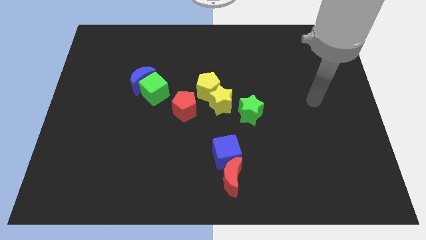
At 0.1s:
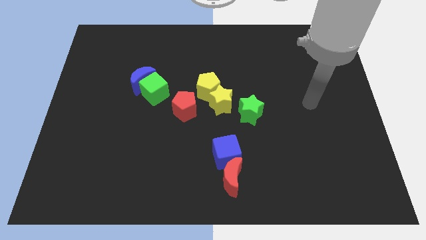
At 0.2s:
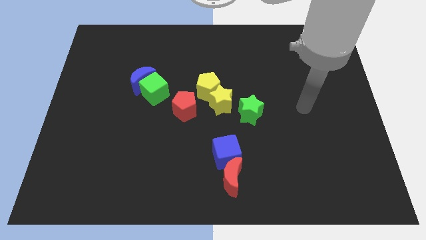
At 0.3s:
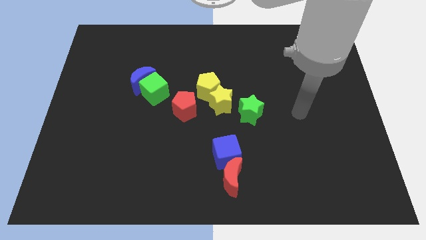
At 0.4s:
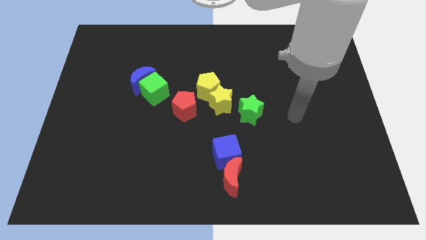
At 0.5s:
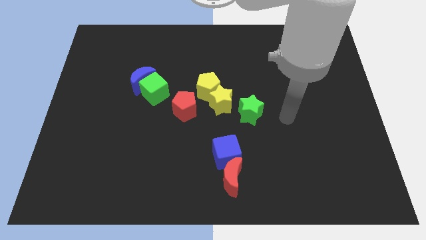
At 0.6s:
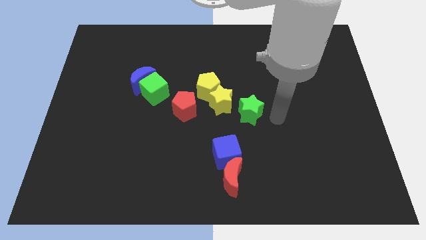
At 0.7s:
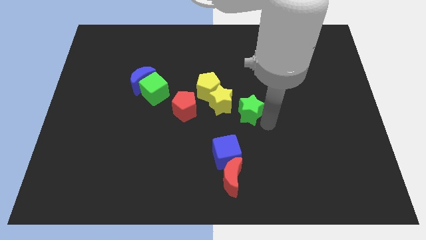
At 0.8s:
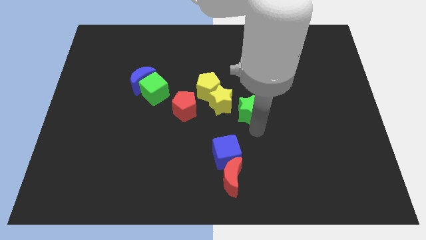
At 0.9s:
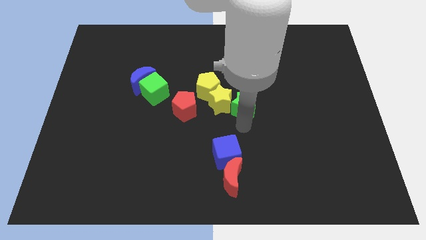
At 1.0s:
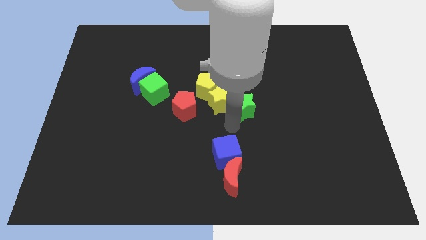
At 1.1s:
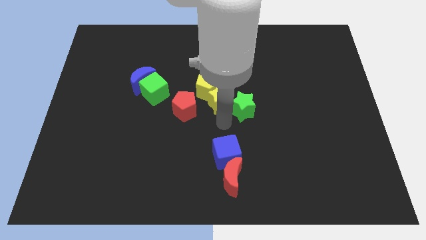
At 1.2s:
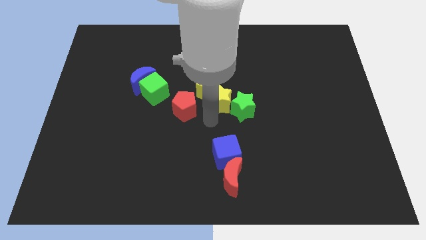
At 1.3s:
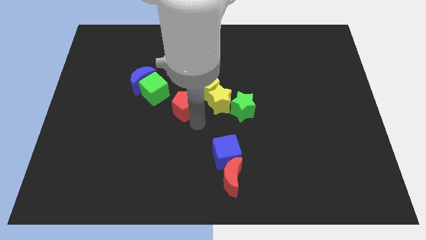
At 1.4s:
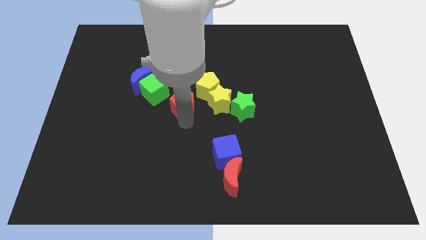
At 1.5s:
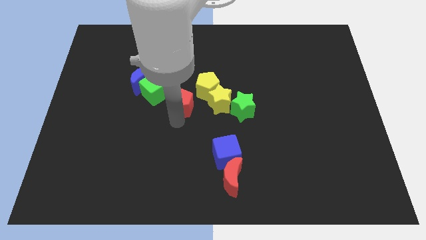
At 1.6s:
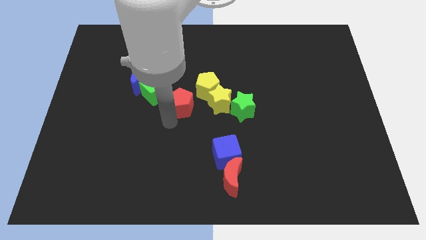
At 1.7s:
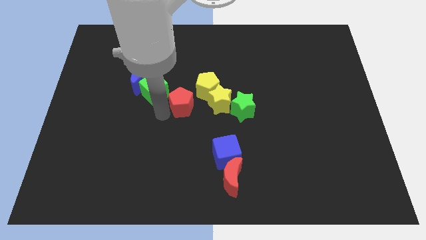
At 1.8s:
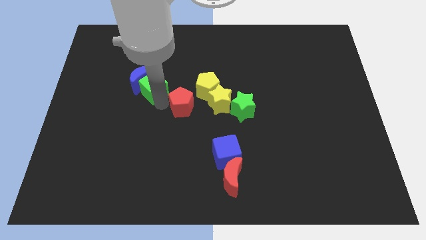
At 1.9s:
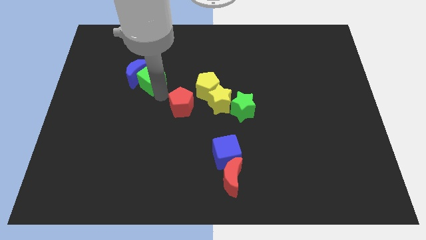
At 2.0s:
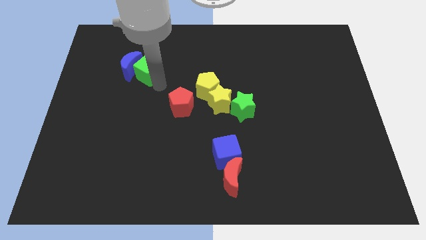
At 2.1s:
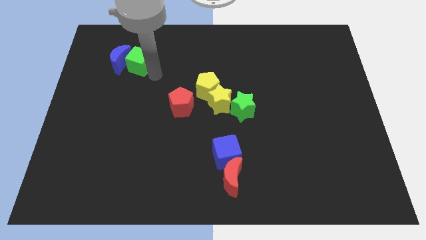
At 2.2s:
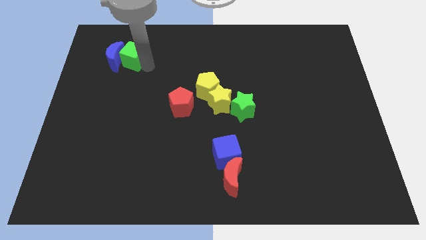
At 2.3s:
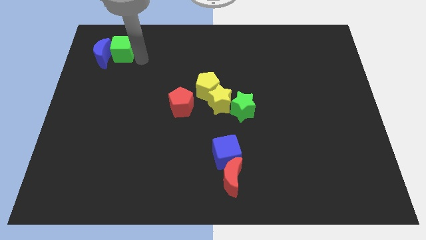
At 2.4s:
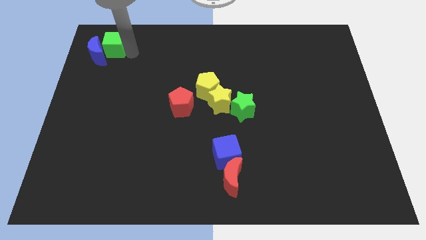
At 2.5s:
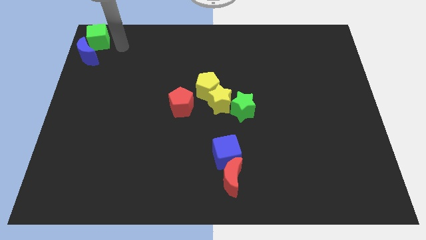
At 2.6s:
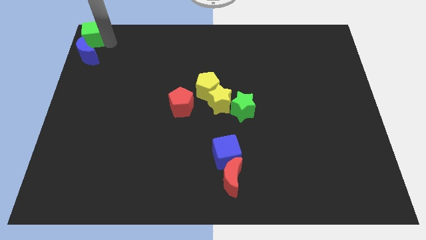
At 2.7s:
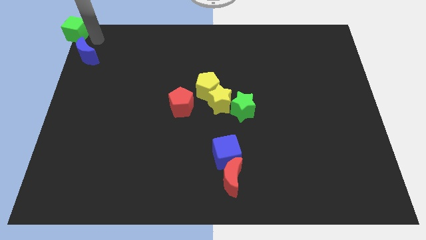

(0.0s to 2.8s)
pull the blue moon apart from the green cube

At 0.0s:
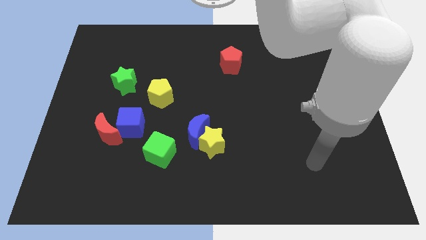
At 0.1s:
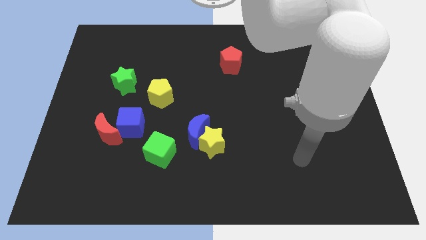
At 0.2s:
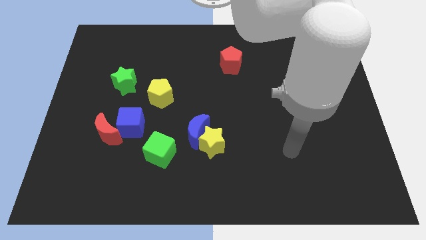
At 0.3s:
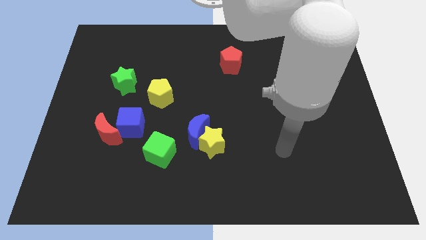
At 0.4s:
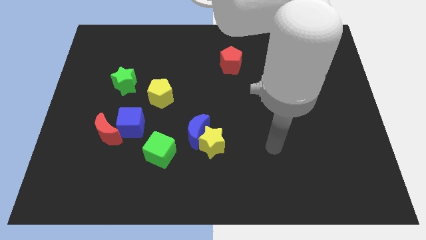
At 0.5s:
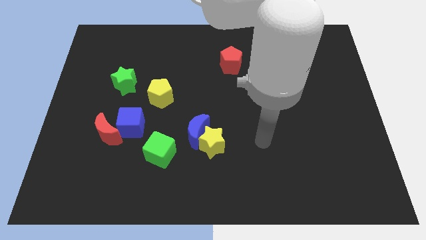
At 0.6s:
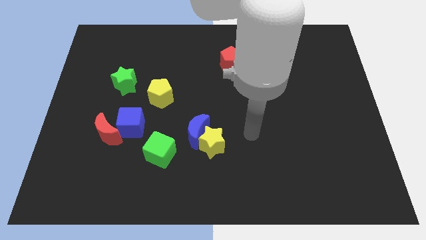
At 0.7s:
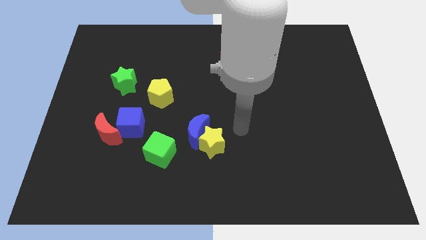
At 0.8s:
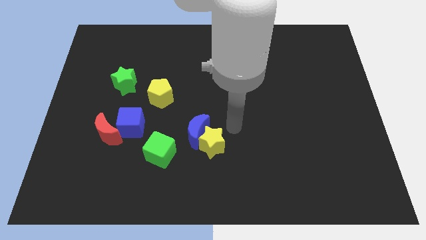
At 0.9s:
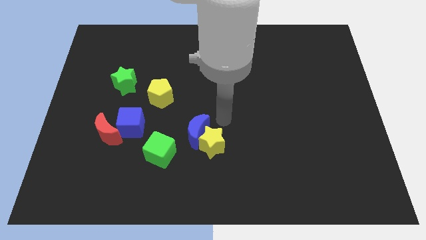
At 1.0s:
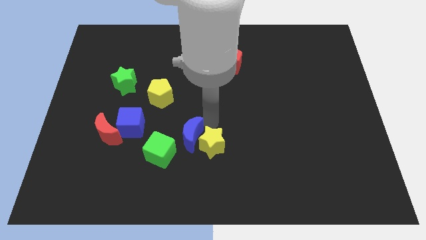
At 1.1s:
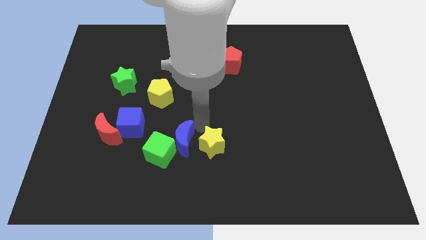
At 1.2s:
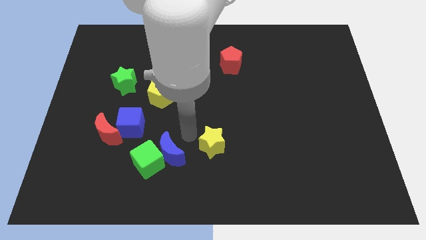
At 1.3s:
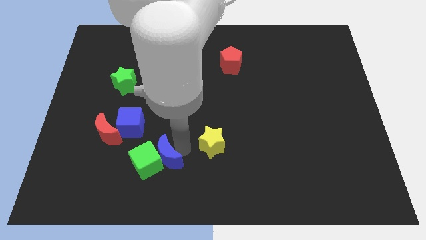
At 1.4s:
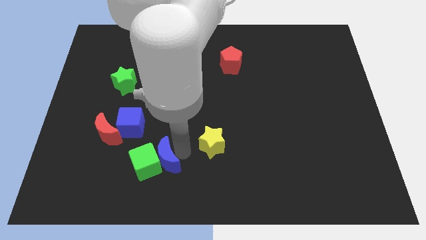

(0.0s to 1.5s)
pull the yellow star apart from the blue moon

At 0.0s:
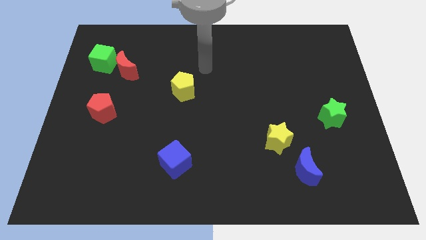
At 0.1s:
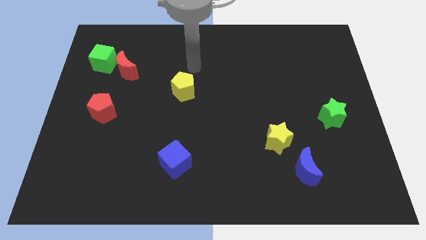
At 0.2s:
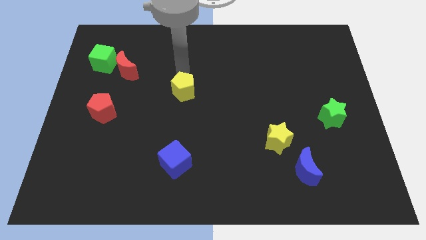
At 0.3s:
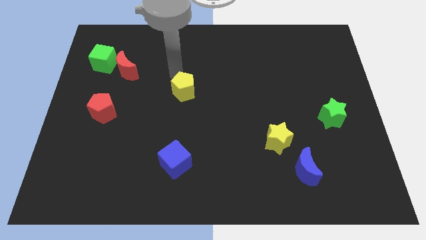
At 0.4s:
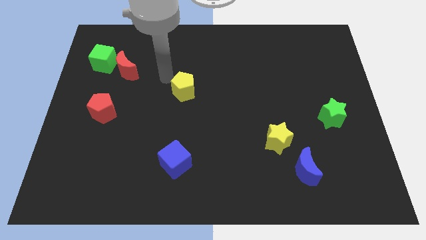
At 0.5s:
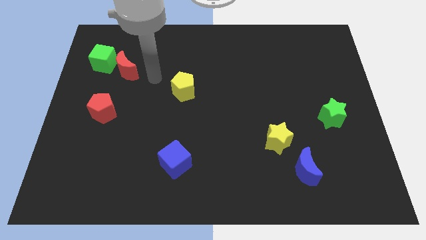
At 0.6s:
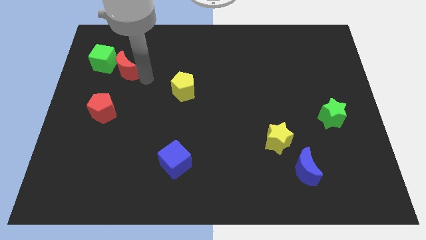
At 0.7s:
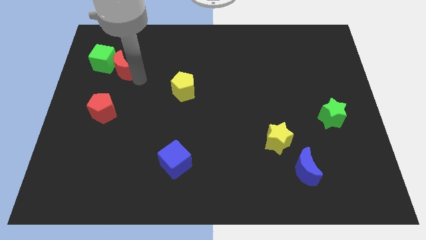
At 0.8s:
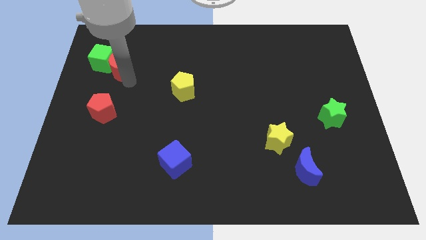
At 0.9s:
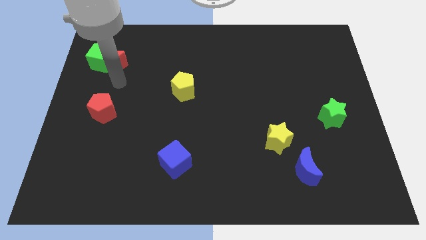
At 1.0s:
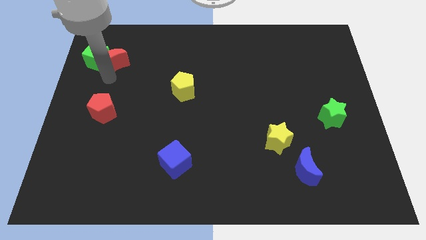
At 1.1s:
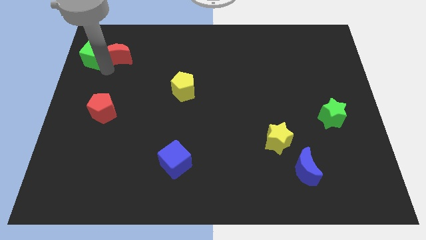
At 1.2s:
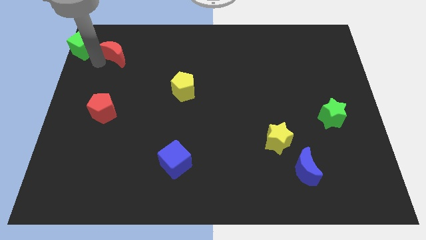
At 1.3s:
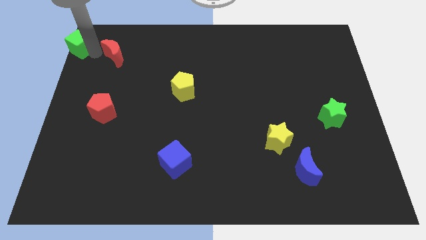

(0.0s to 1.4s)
pull the red moon apart from the green cube

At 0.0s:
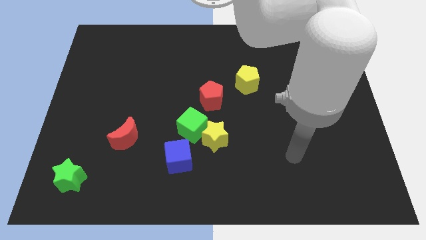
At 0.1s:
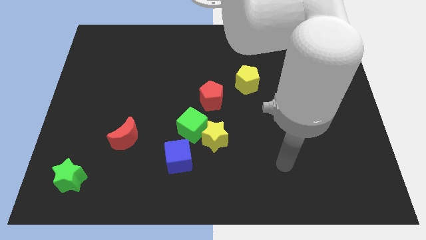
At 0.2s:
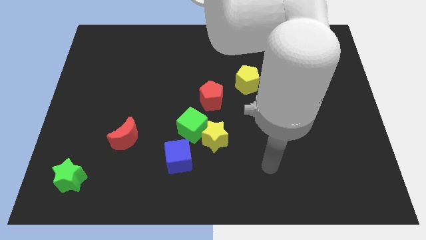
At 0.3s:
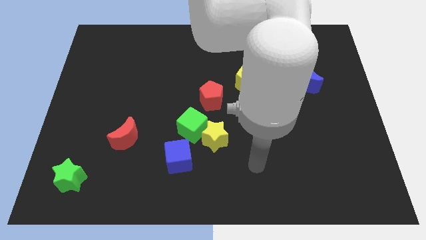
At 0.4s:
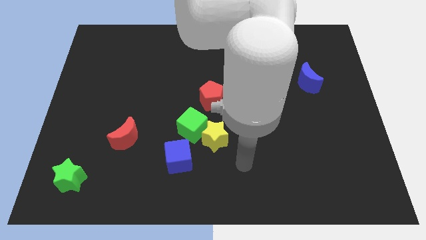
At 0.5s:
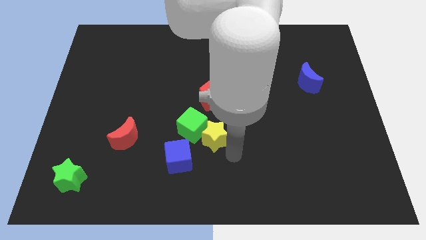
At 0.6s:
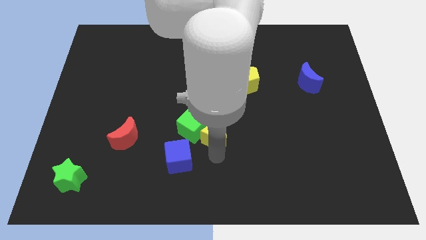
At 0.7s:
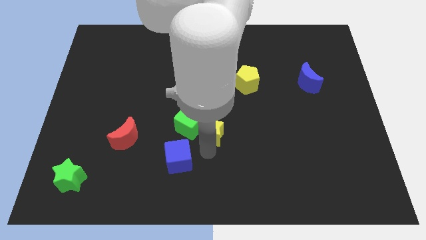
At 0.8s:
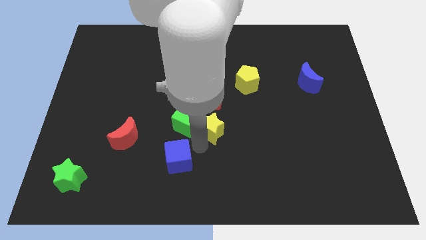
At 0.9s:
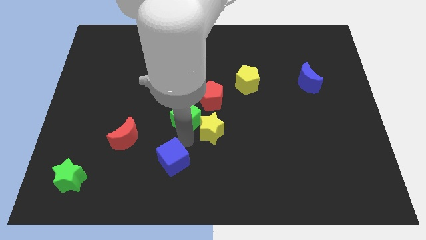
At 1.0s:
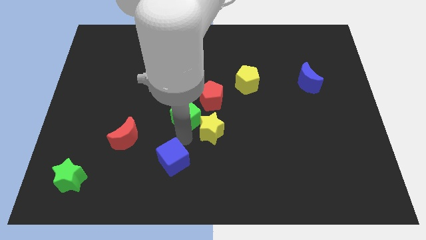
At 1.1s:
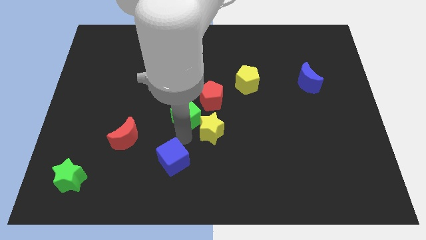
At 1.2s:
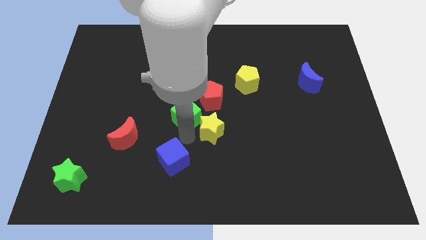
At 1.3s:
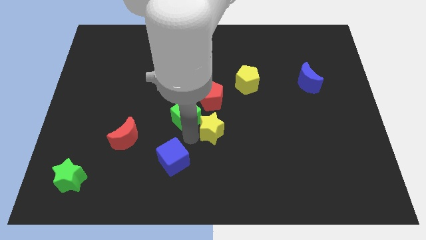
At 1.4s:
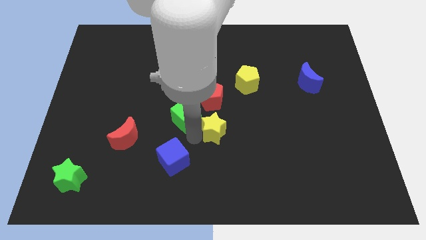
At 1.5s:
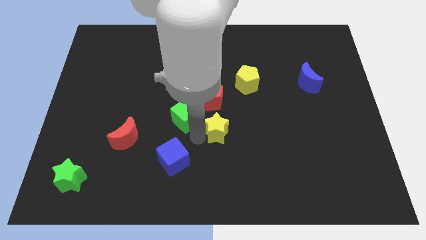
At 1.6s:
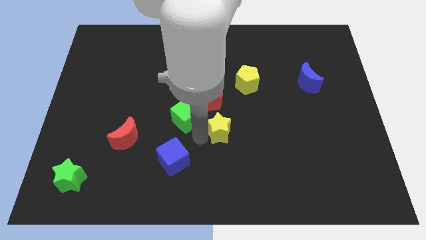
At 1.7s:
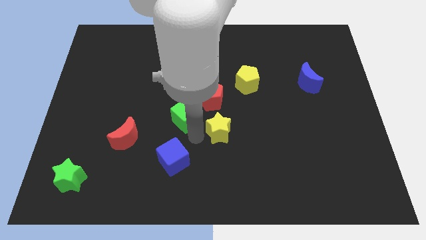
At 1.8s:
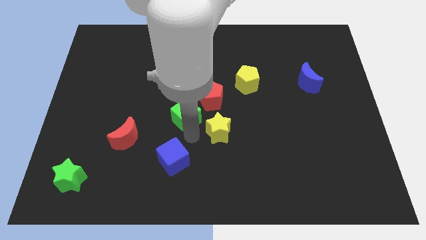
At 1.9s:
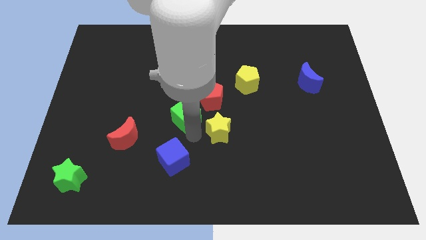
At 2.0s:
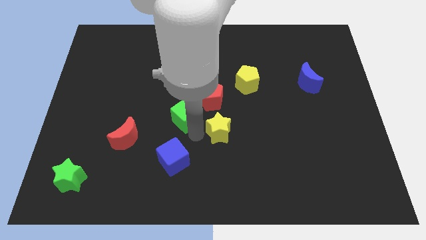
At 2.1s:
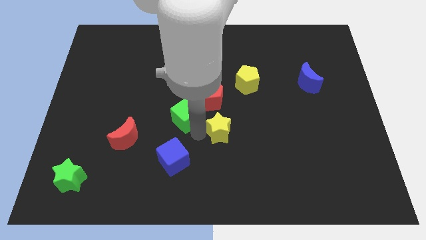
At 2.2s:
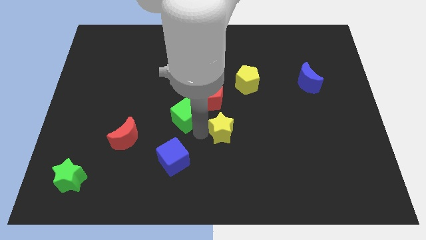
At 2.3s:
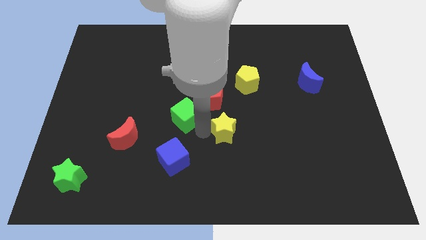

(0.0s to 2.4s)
separate the yellow star from the green cube and blue cube

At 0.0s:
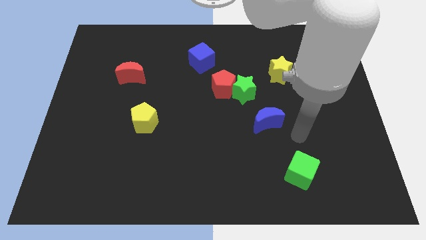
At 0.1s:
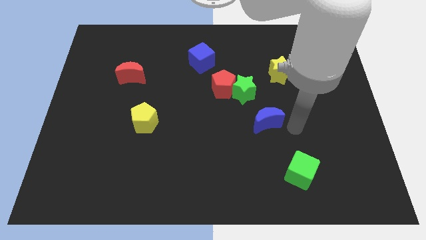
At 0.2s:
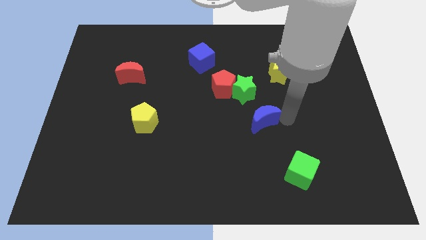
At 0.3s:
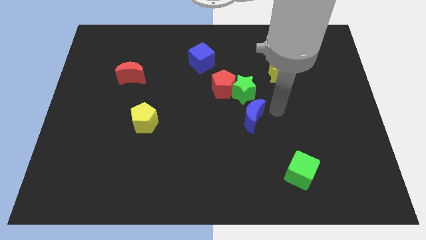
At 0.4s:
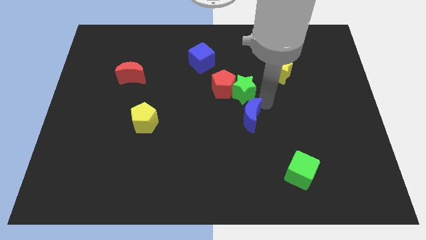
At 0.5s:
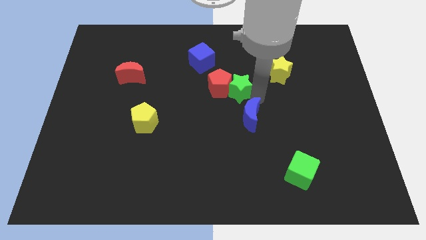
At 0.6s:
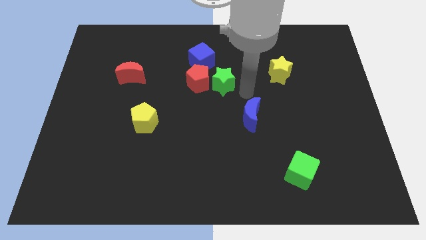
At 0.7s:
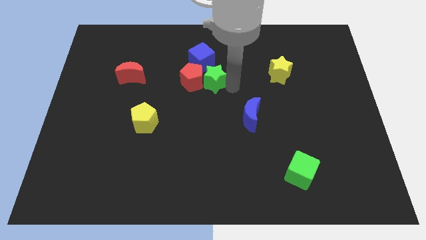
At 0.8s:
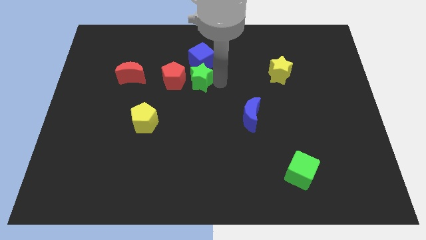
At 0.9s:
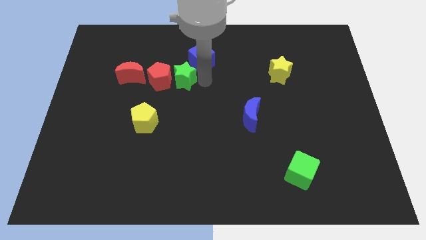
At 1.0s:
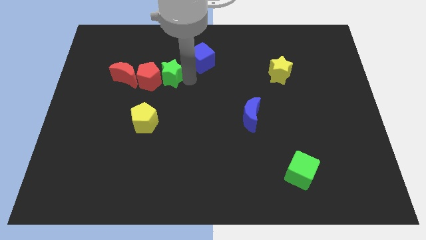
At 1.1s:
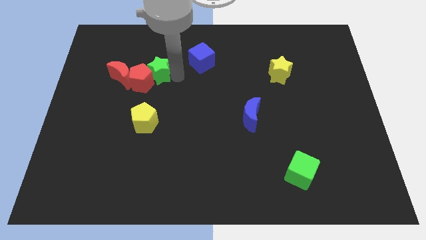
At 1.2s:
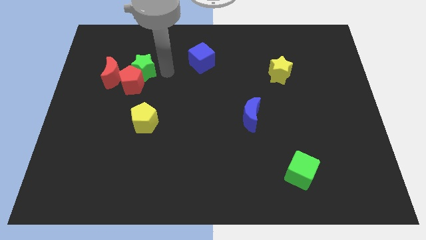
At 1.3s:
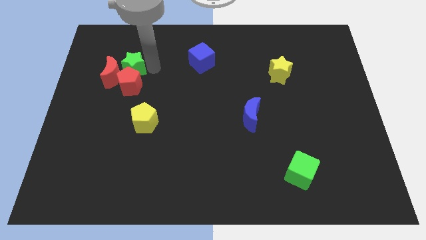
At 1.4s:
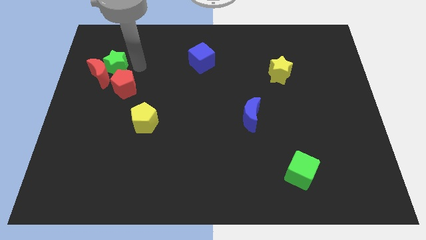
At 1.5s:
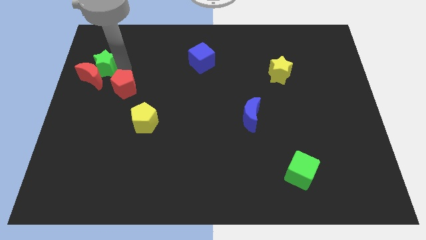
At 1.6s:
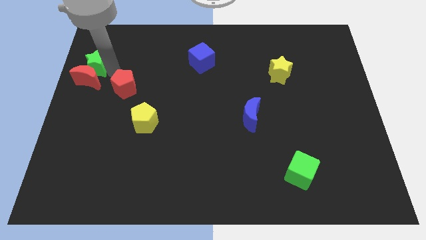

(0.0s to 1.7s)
move the red pentagon away from the green star
